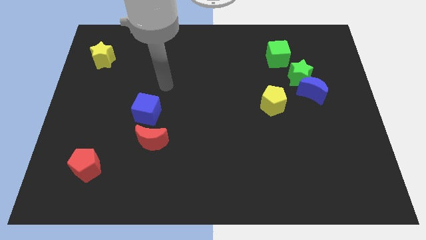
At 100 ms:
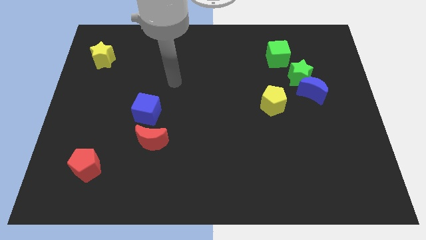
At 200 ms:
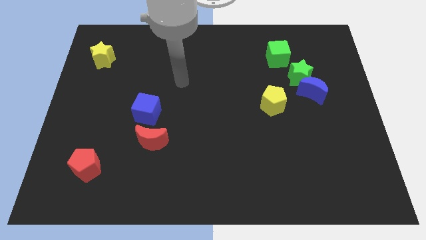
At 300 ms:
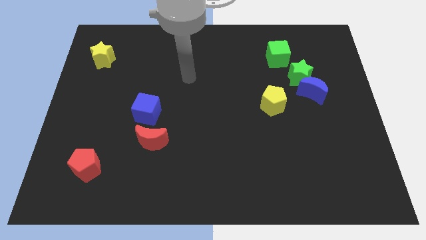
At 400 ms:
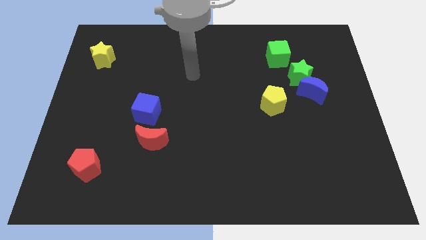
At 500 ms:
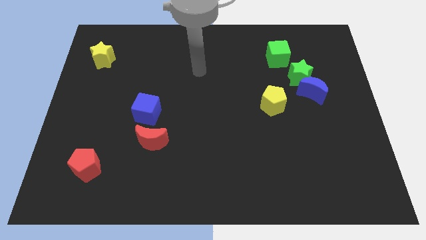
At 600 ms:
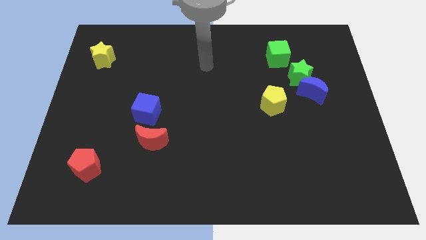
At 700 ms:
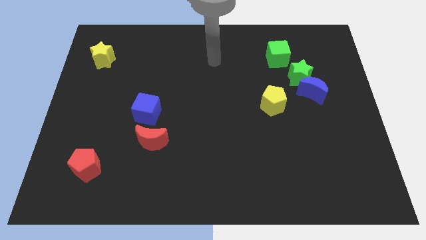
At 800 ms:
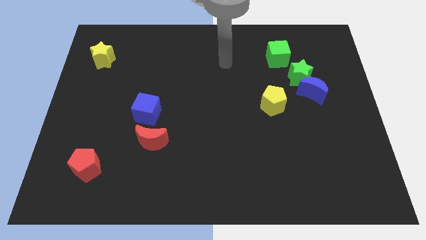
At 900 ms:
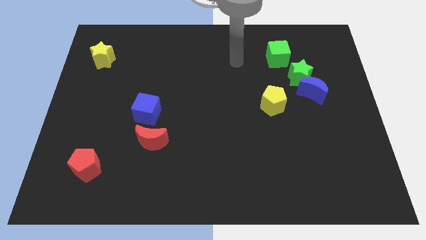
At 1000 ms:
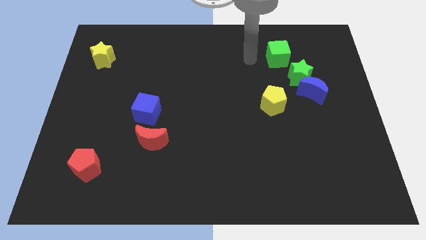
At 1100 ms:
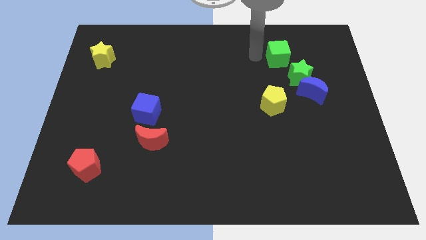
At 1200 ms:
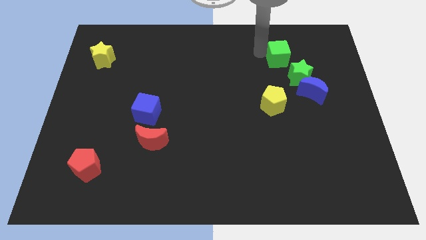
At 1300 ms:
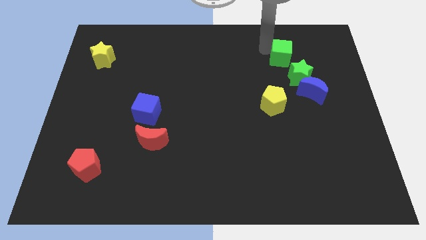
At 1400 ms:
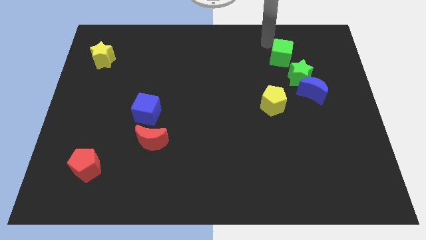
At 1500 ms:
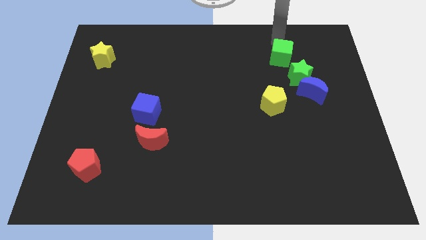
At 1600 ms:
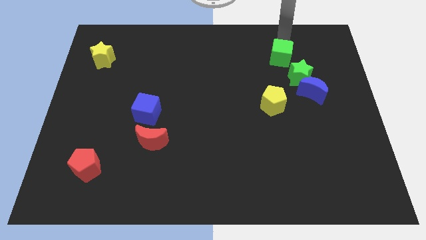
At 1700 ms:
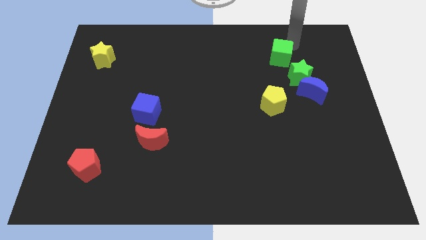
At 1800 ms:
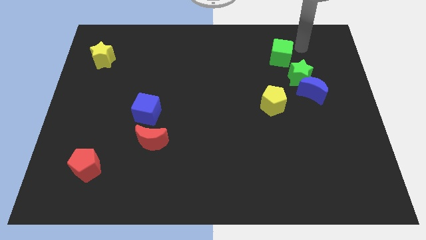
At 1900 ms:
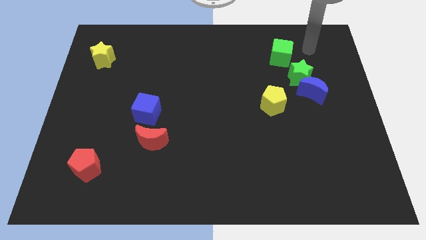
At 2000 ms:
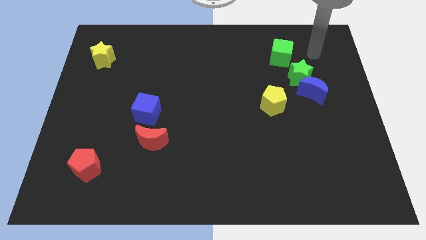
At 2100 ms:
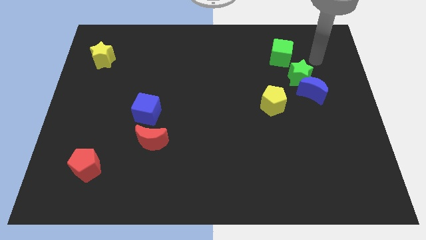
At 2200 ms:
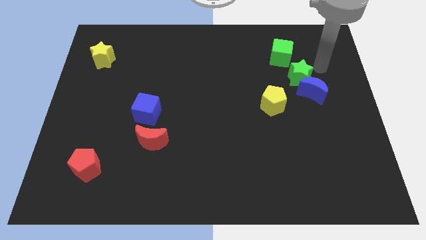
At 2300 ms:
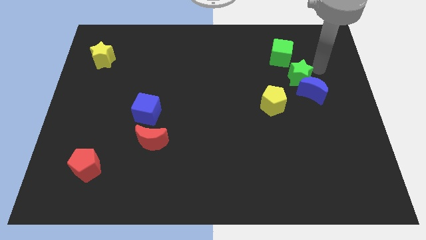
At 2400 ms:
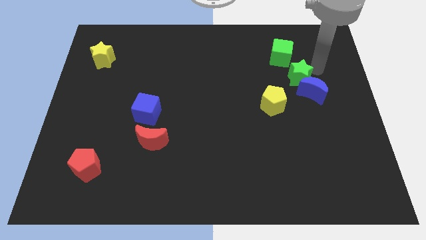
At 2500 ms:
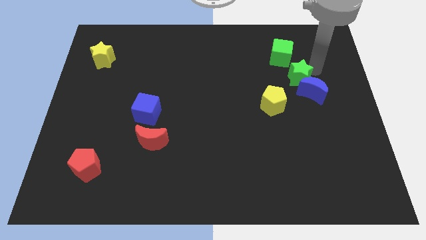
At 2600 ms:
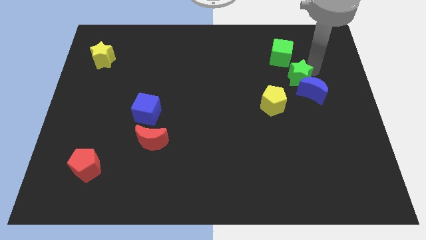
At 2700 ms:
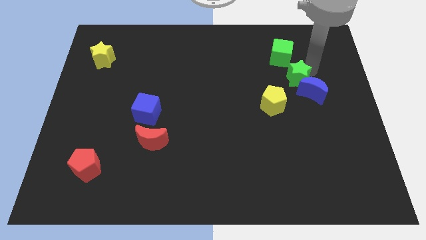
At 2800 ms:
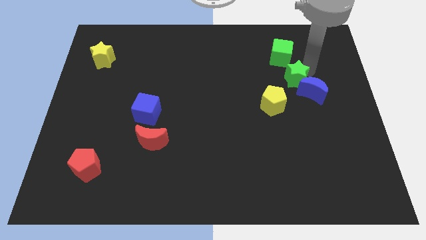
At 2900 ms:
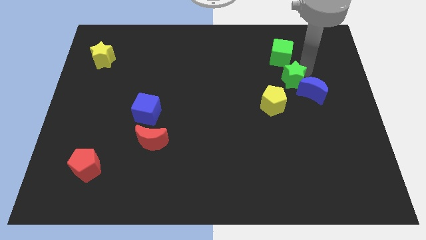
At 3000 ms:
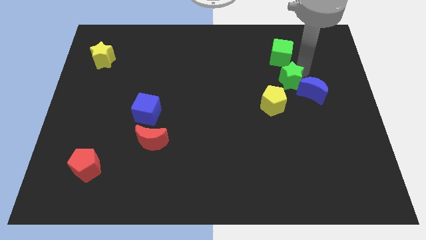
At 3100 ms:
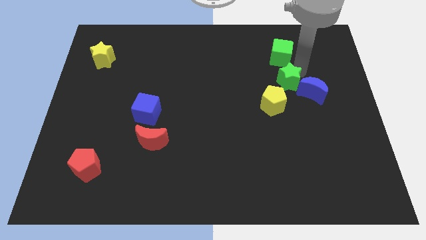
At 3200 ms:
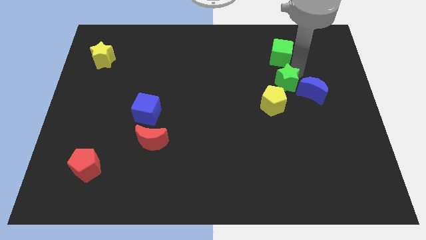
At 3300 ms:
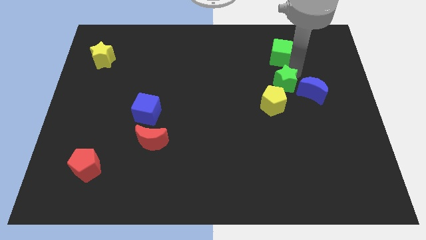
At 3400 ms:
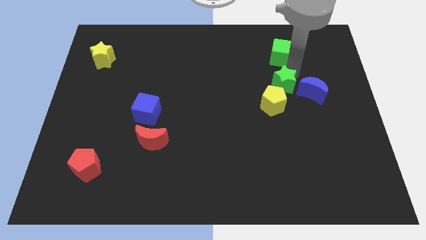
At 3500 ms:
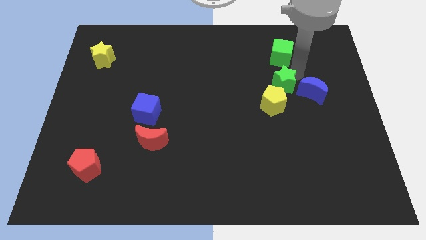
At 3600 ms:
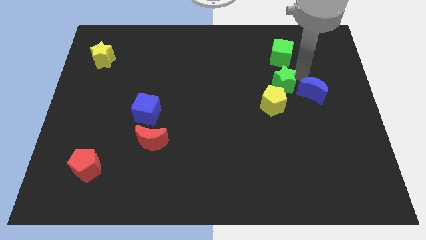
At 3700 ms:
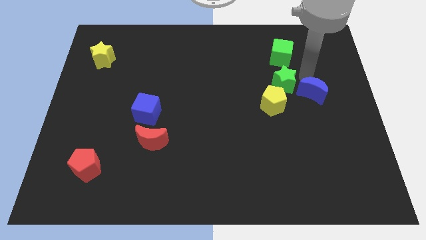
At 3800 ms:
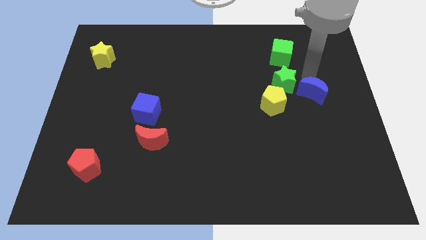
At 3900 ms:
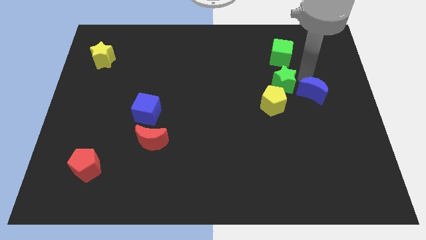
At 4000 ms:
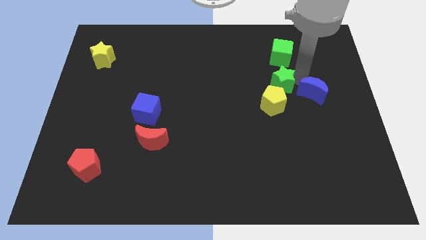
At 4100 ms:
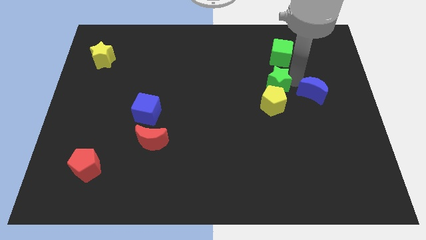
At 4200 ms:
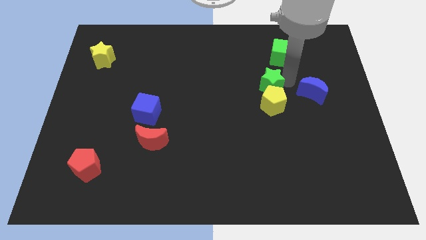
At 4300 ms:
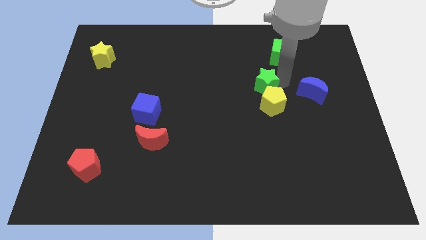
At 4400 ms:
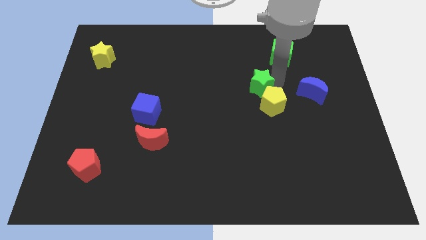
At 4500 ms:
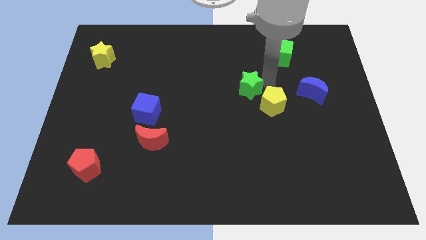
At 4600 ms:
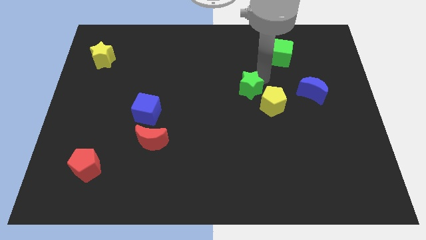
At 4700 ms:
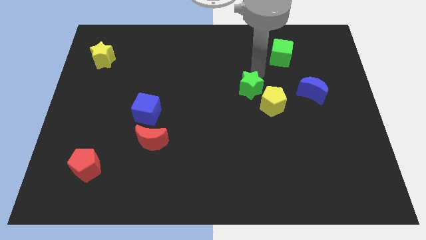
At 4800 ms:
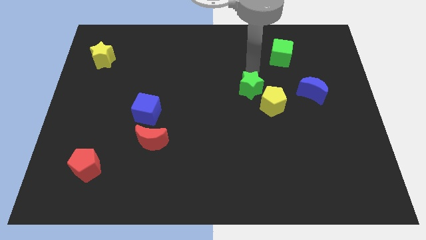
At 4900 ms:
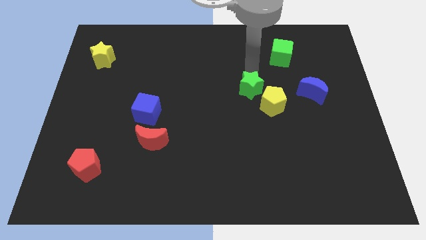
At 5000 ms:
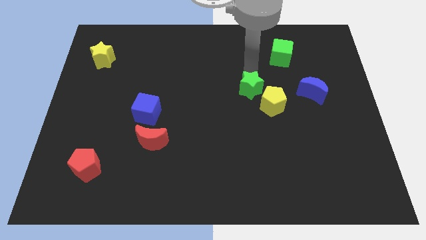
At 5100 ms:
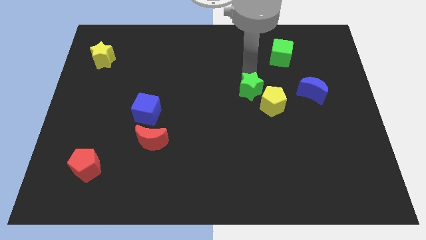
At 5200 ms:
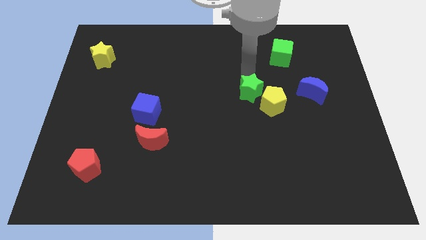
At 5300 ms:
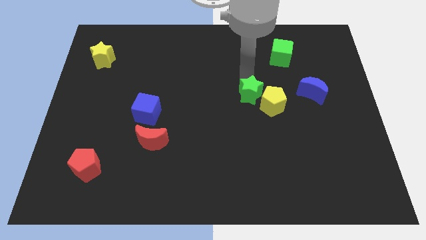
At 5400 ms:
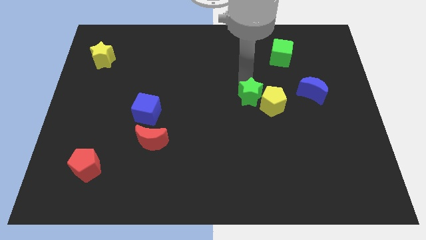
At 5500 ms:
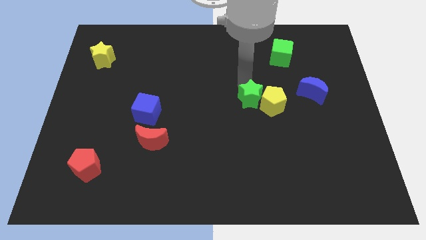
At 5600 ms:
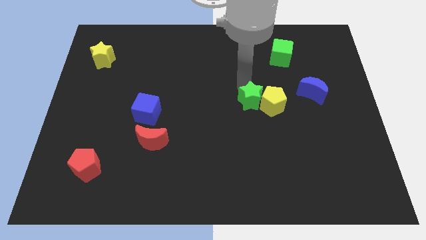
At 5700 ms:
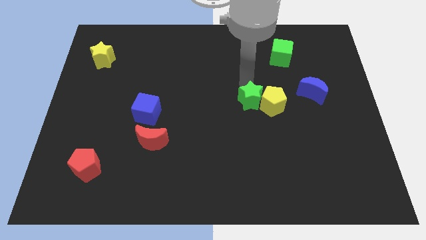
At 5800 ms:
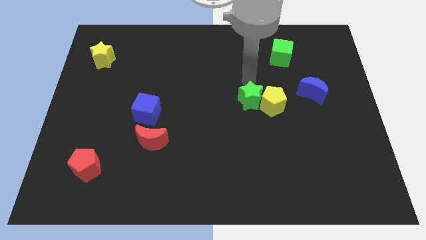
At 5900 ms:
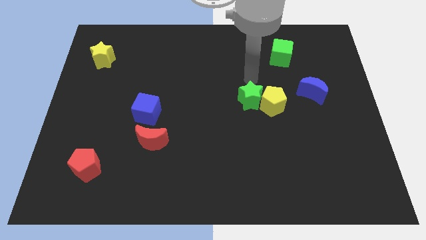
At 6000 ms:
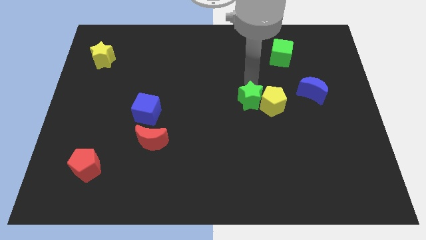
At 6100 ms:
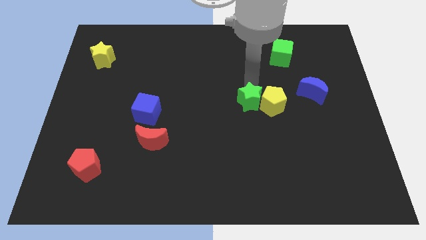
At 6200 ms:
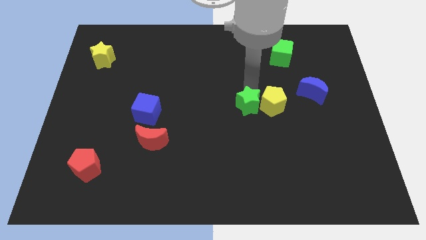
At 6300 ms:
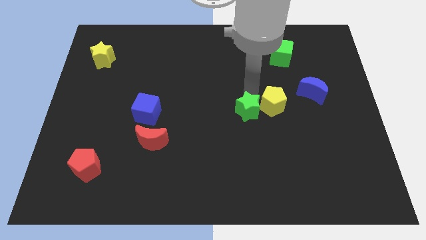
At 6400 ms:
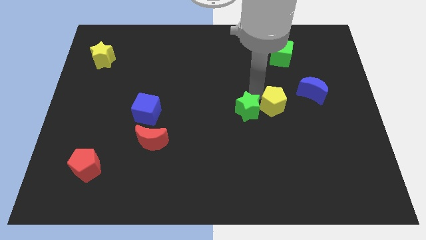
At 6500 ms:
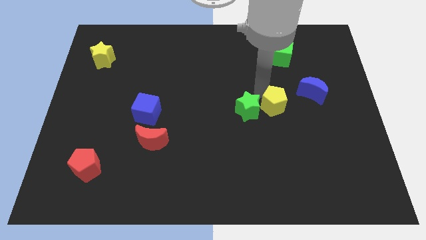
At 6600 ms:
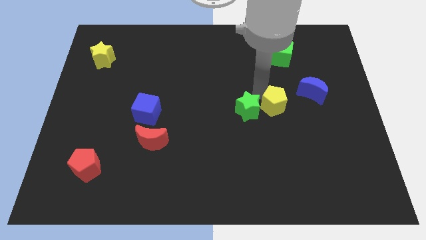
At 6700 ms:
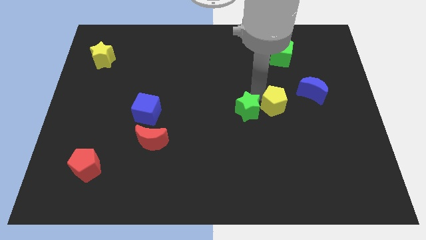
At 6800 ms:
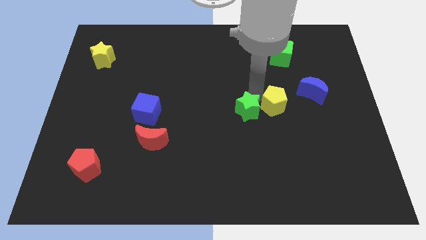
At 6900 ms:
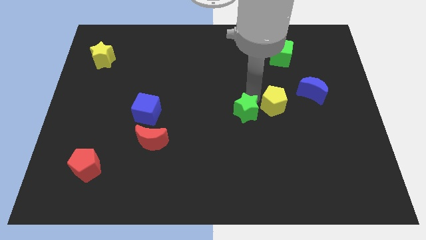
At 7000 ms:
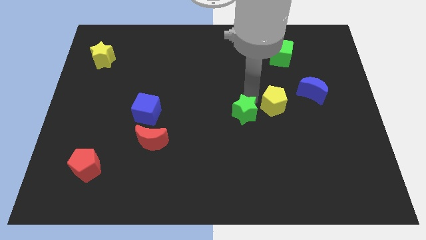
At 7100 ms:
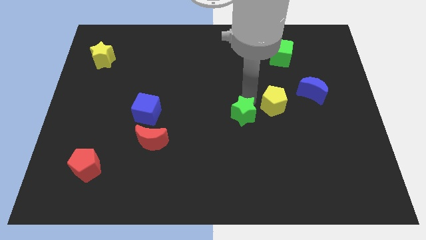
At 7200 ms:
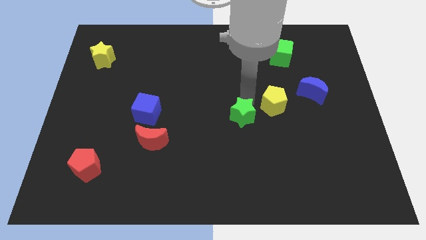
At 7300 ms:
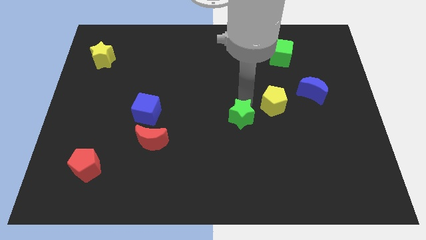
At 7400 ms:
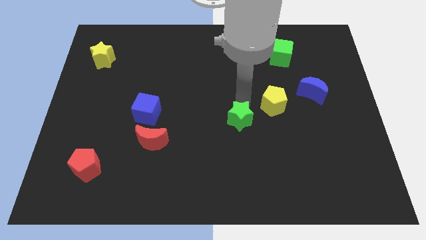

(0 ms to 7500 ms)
slide the green star downwards and to the left

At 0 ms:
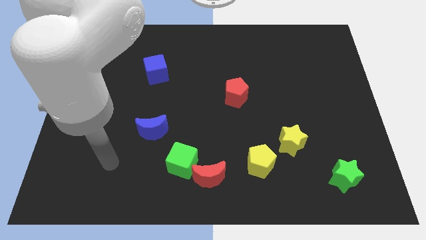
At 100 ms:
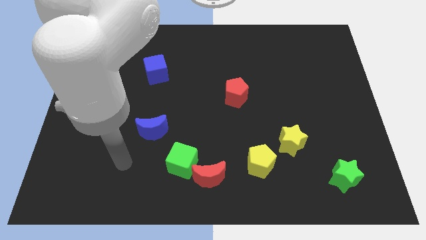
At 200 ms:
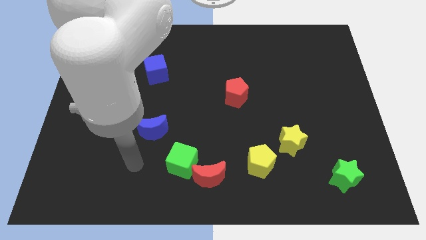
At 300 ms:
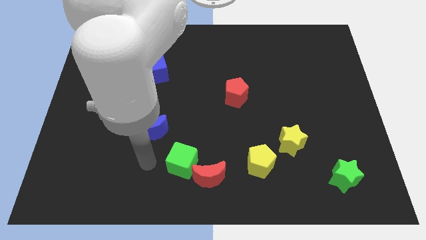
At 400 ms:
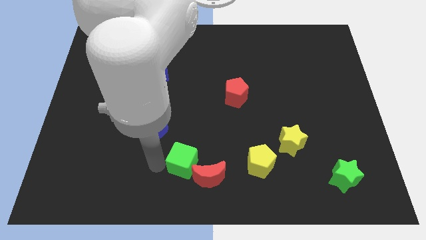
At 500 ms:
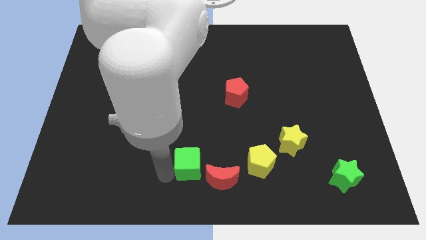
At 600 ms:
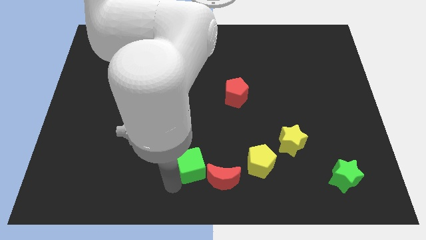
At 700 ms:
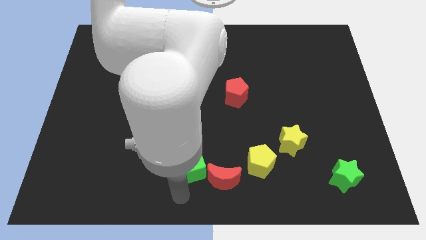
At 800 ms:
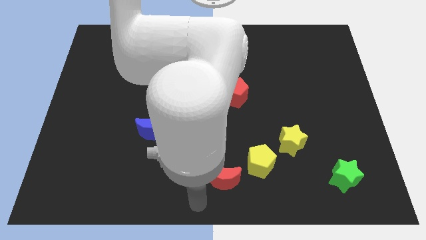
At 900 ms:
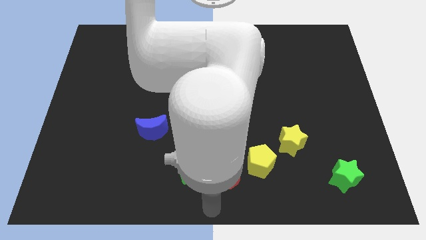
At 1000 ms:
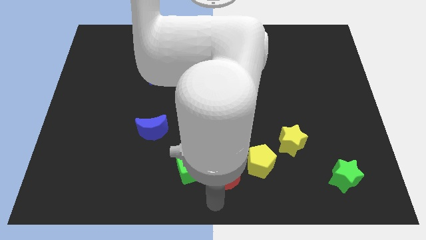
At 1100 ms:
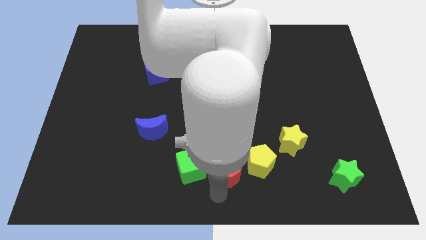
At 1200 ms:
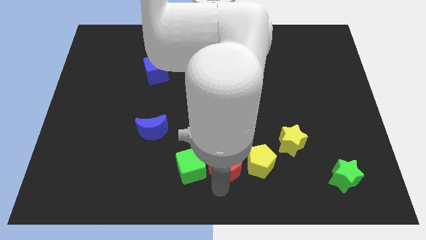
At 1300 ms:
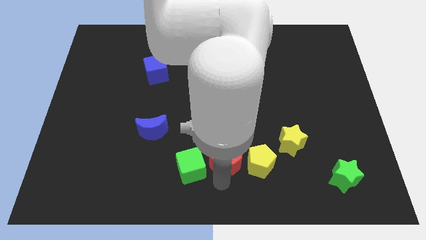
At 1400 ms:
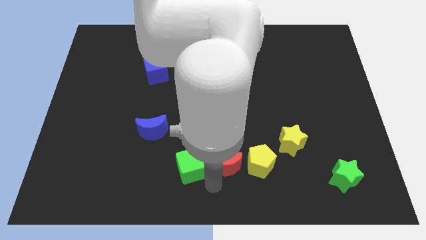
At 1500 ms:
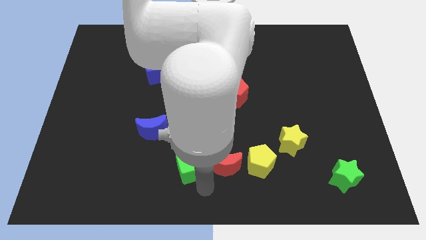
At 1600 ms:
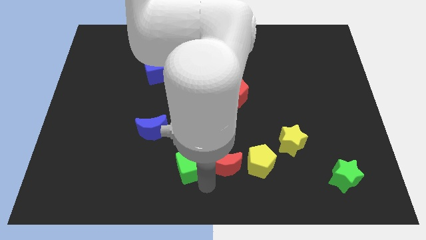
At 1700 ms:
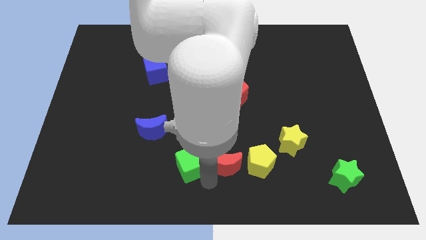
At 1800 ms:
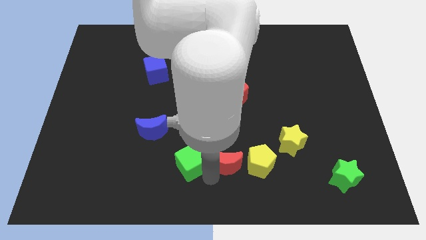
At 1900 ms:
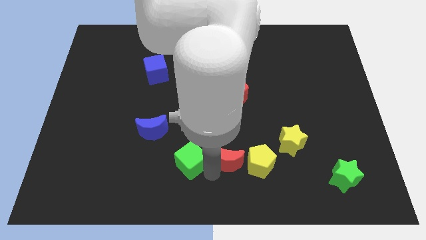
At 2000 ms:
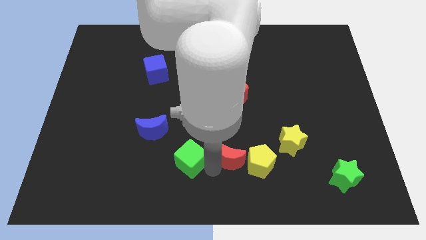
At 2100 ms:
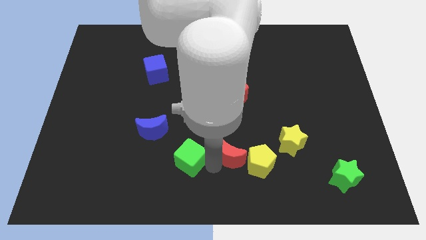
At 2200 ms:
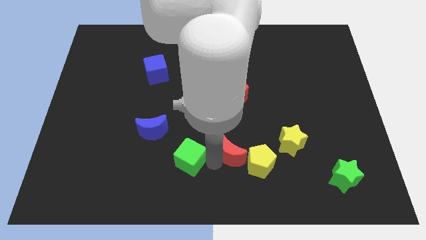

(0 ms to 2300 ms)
move the red moon upwards and to the right slightly
